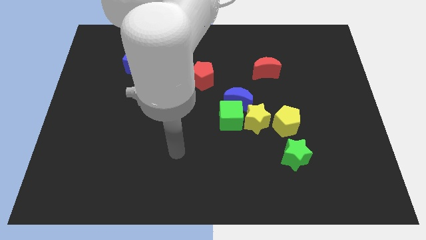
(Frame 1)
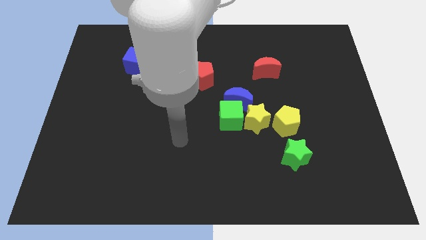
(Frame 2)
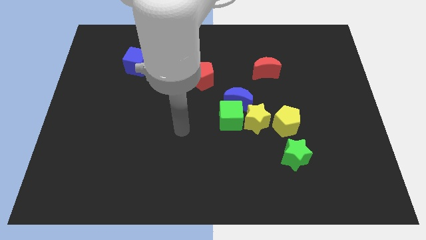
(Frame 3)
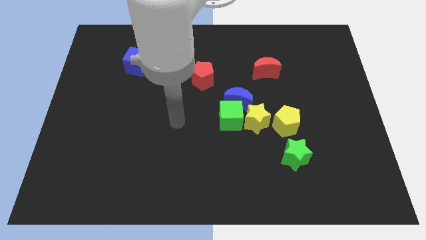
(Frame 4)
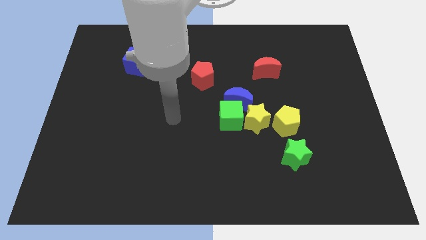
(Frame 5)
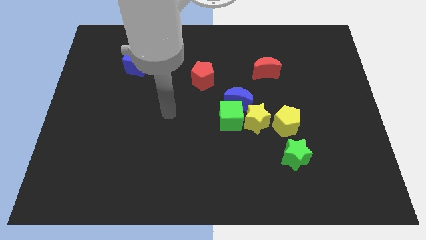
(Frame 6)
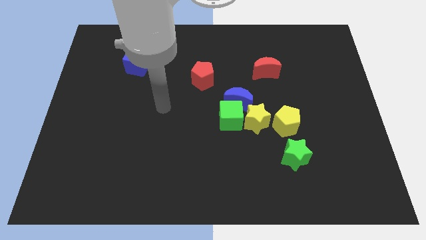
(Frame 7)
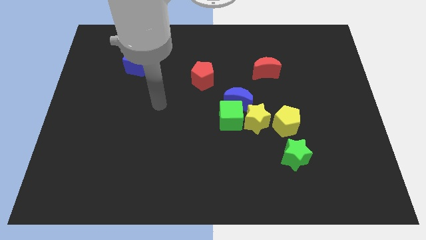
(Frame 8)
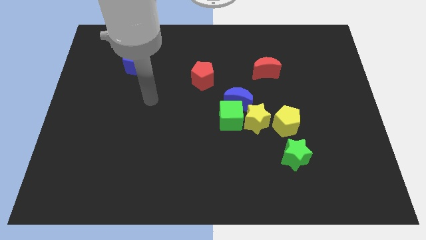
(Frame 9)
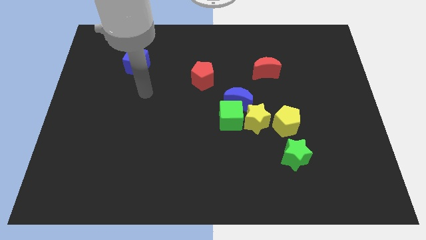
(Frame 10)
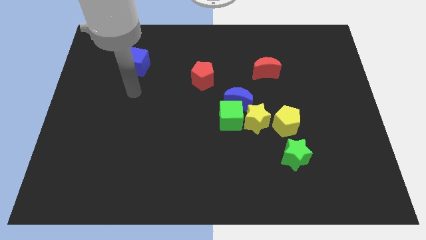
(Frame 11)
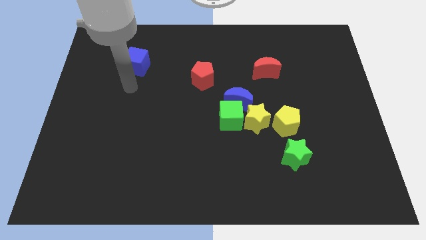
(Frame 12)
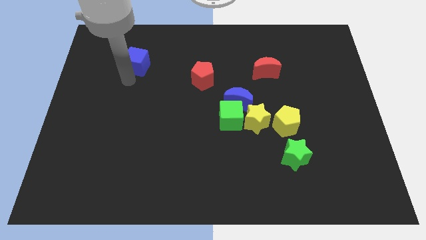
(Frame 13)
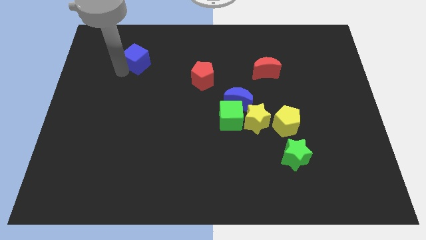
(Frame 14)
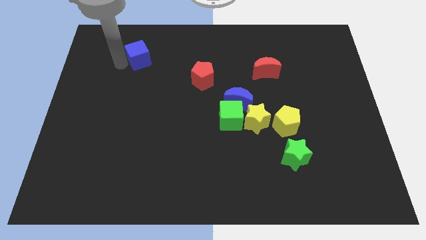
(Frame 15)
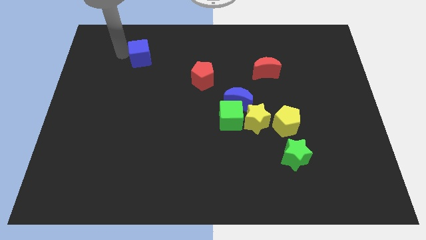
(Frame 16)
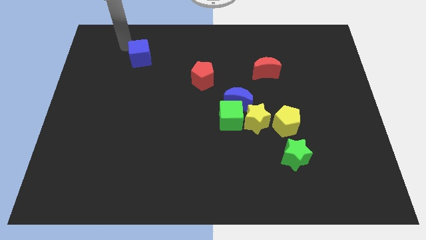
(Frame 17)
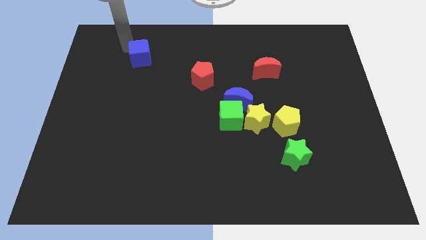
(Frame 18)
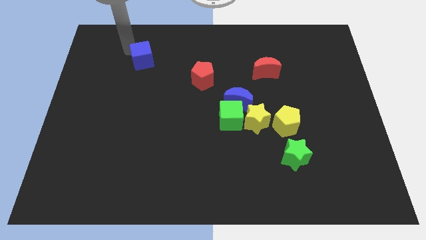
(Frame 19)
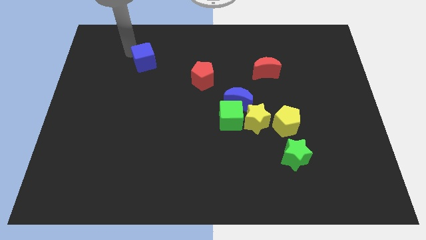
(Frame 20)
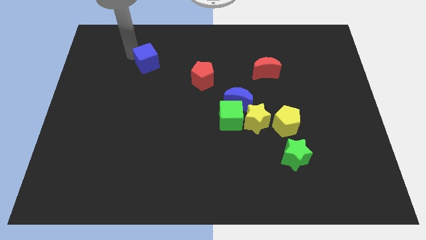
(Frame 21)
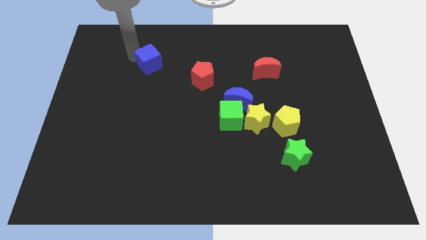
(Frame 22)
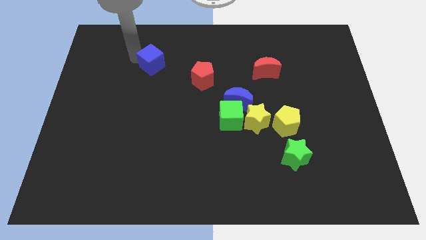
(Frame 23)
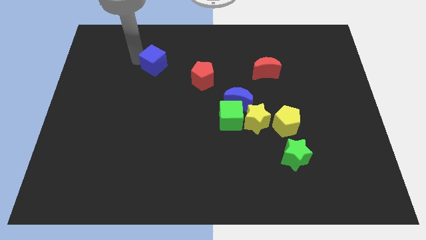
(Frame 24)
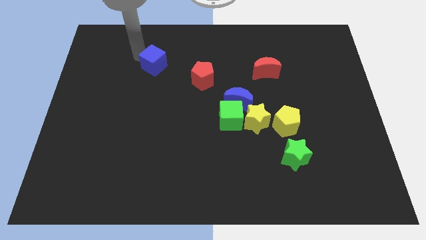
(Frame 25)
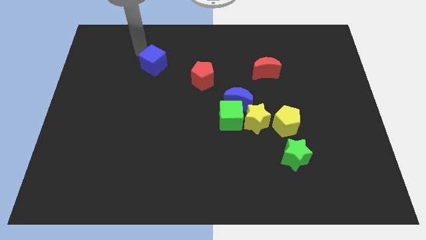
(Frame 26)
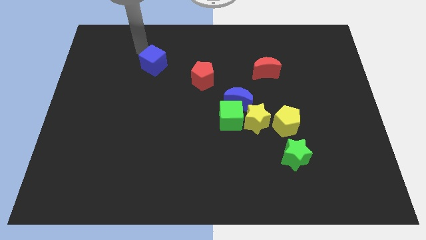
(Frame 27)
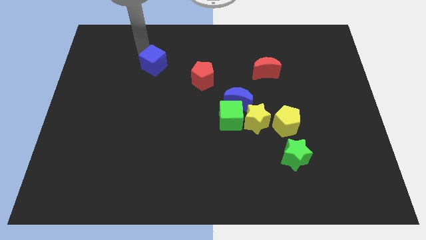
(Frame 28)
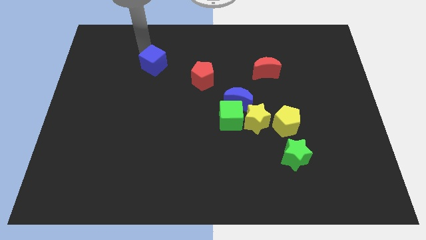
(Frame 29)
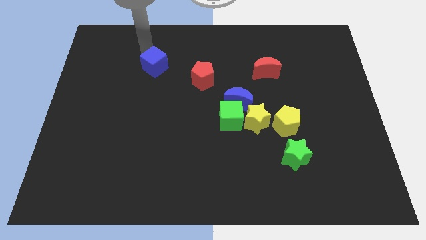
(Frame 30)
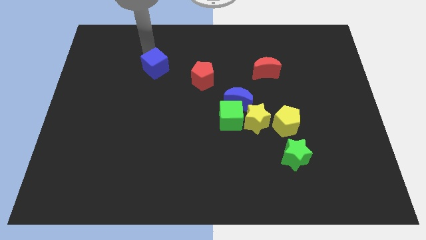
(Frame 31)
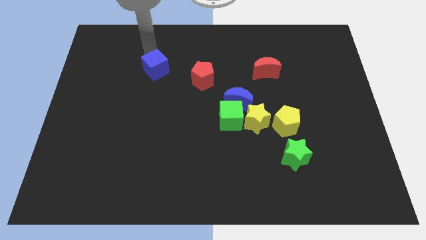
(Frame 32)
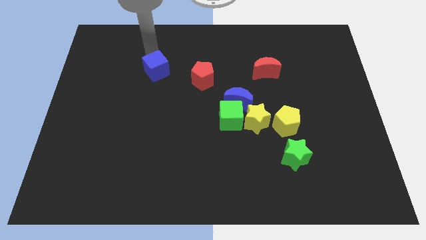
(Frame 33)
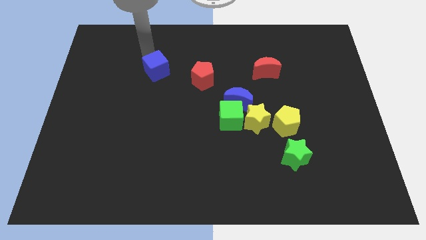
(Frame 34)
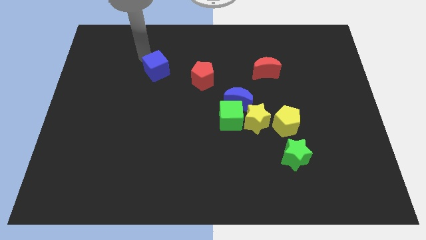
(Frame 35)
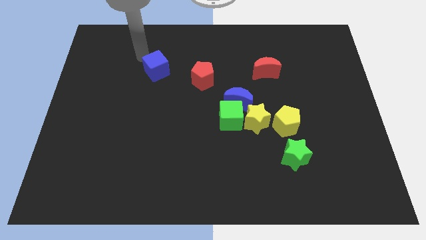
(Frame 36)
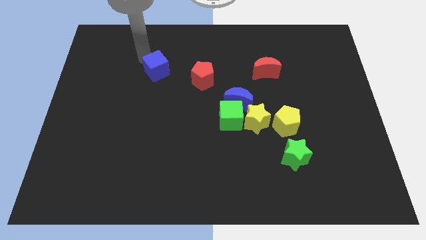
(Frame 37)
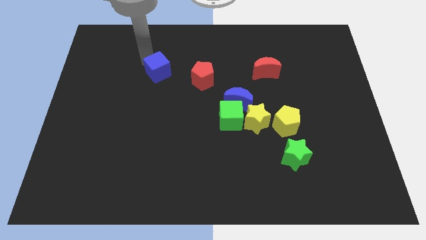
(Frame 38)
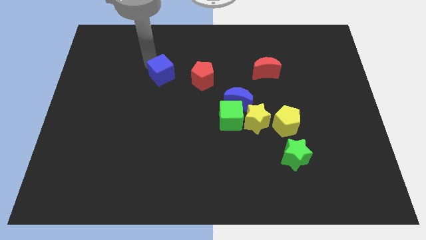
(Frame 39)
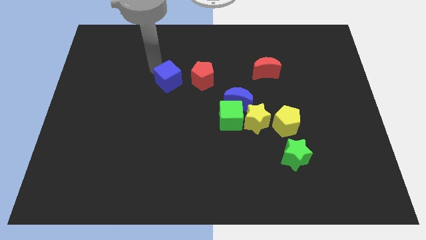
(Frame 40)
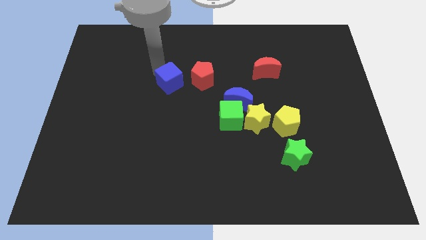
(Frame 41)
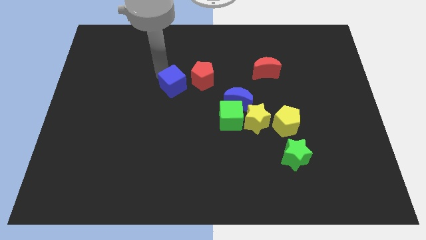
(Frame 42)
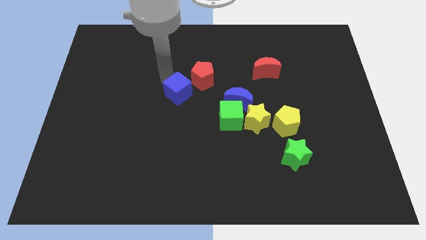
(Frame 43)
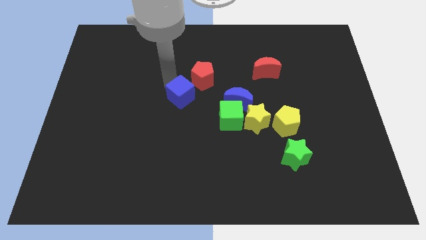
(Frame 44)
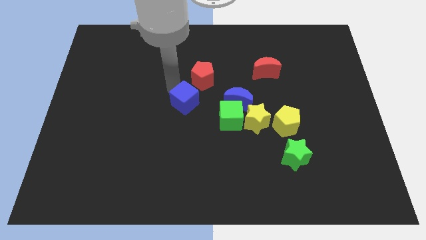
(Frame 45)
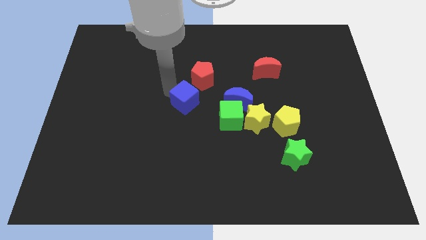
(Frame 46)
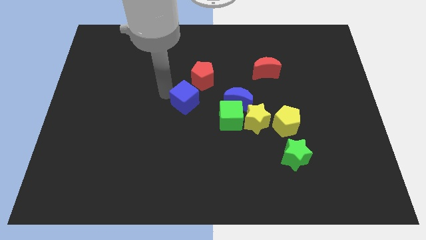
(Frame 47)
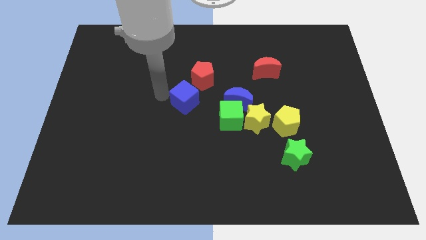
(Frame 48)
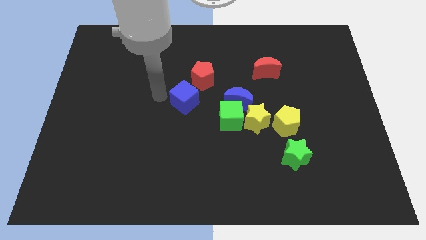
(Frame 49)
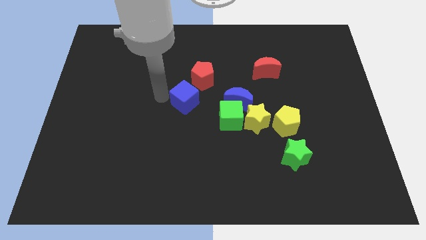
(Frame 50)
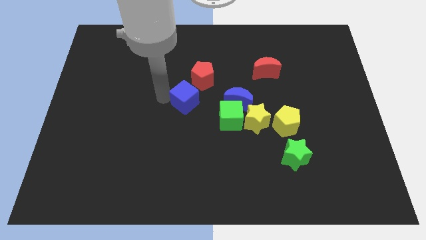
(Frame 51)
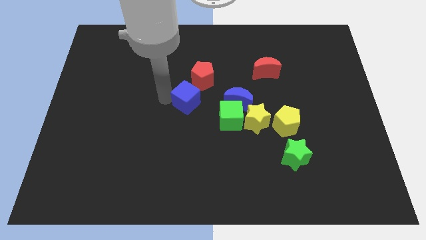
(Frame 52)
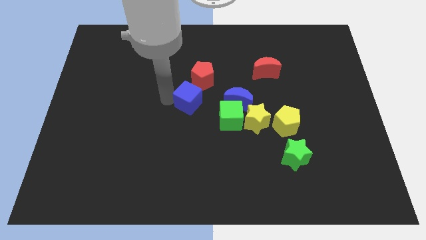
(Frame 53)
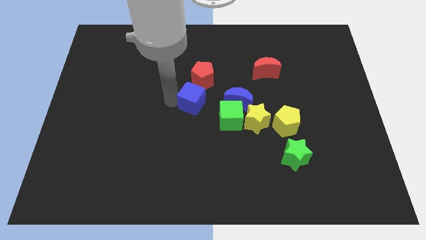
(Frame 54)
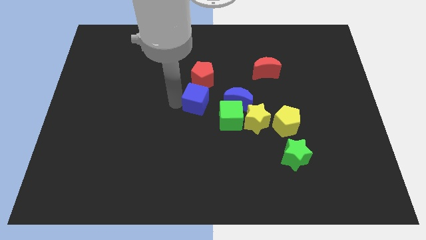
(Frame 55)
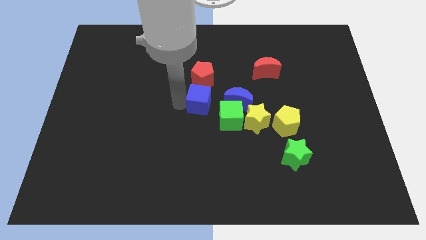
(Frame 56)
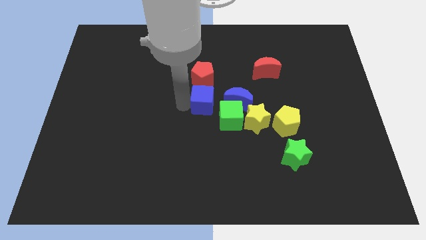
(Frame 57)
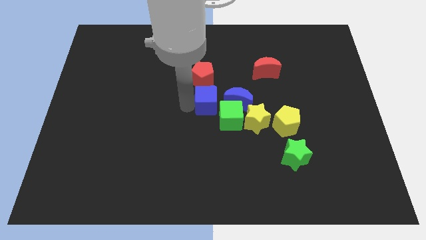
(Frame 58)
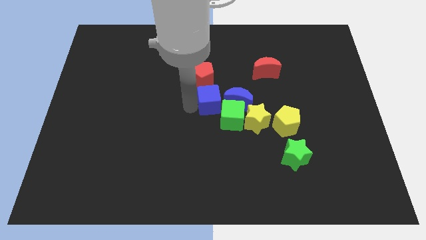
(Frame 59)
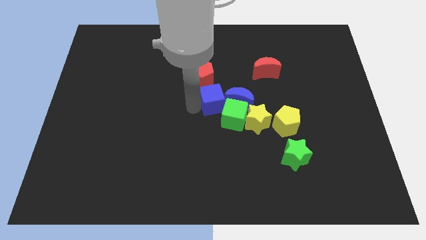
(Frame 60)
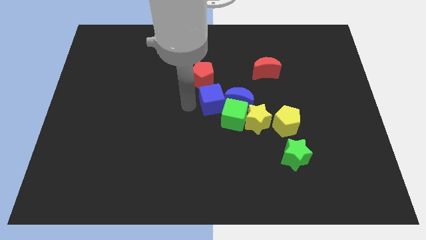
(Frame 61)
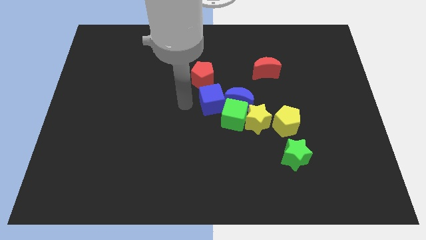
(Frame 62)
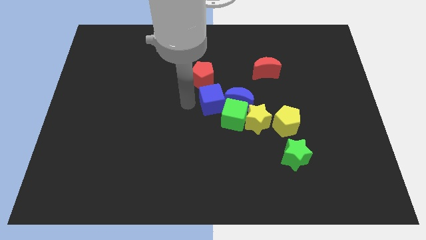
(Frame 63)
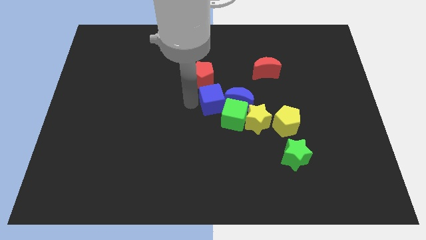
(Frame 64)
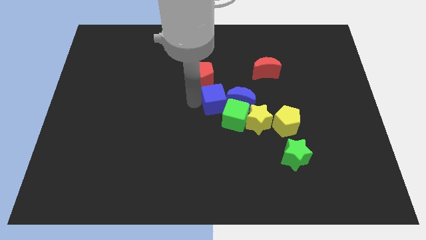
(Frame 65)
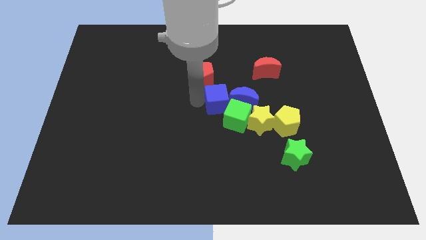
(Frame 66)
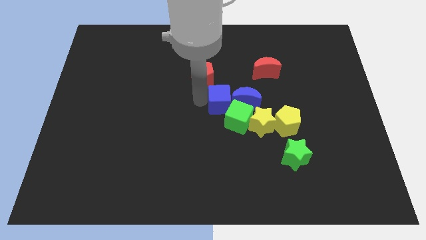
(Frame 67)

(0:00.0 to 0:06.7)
push the blue cube close to the blue moon
